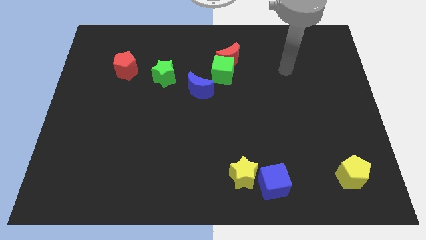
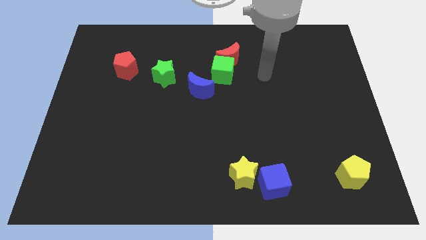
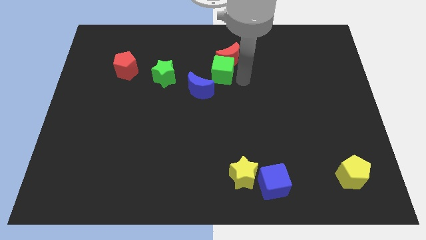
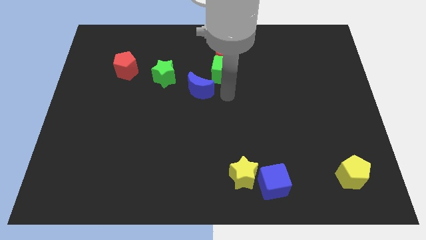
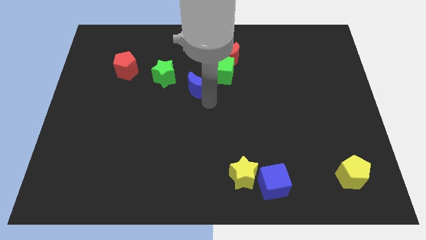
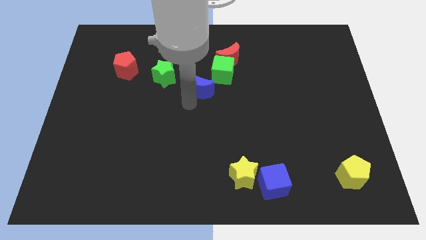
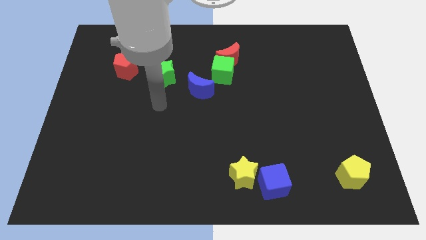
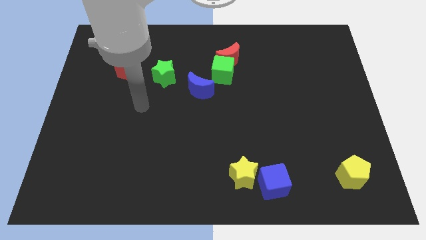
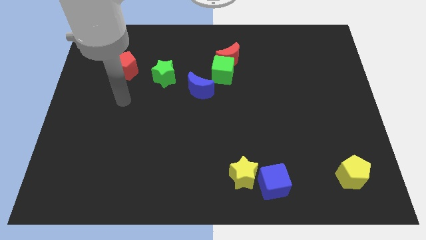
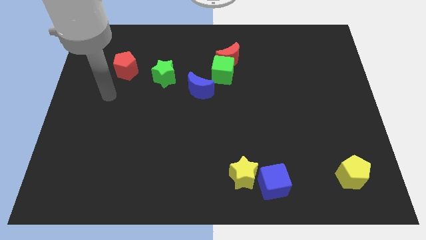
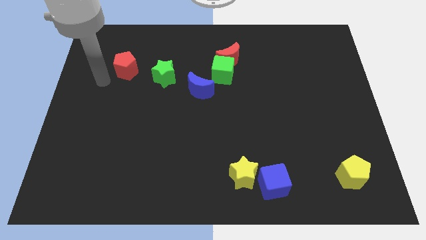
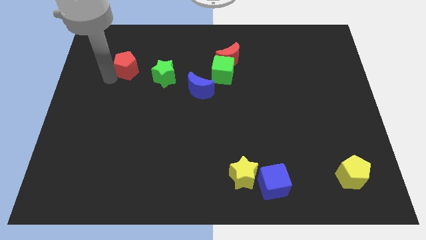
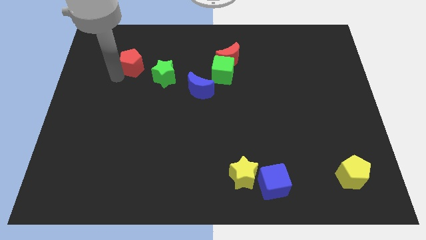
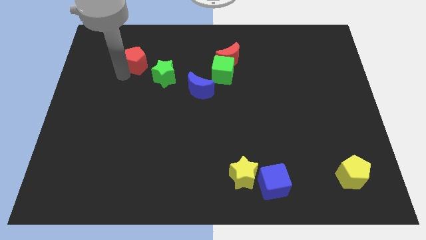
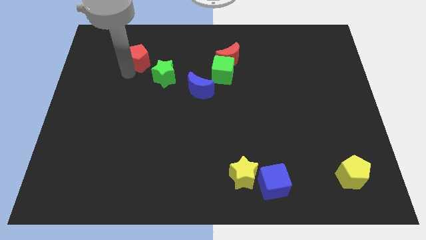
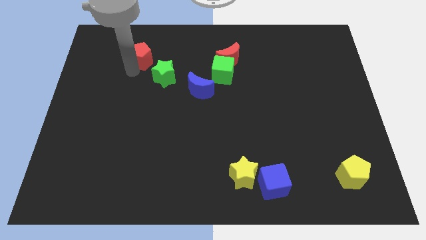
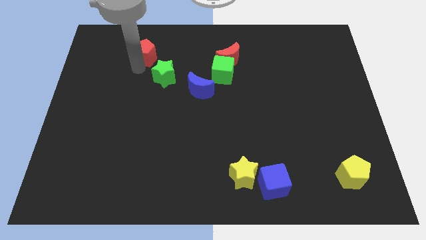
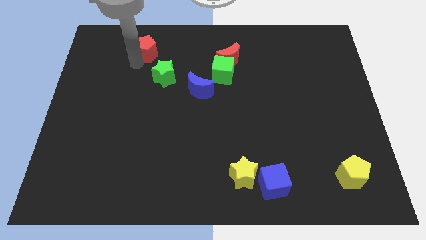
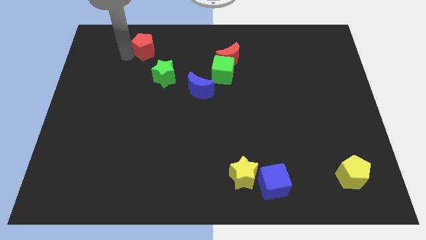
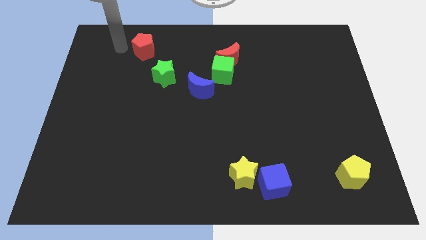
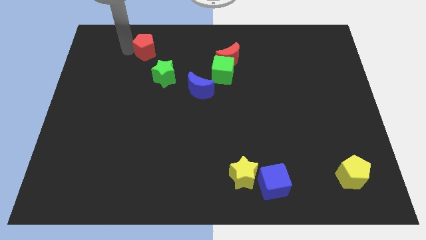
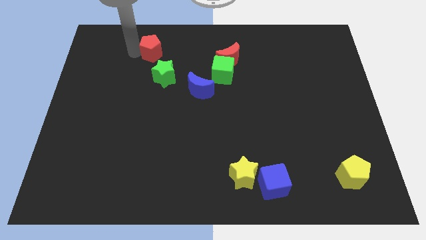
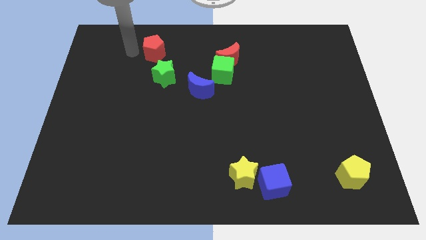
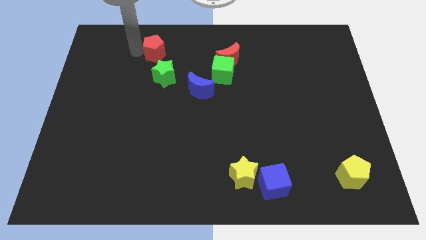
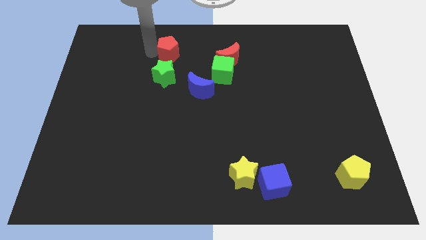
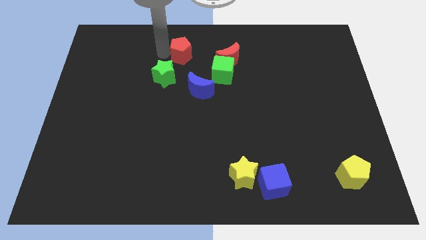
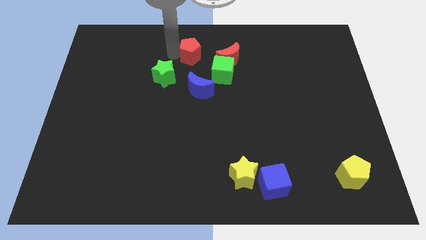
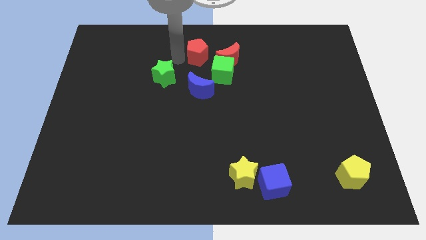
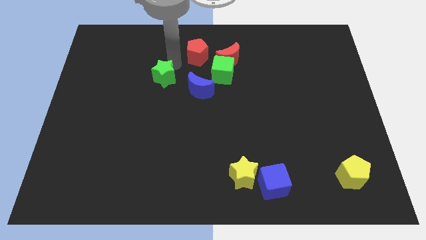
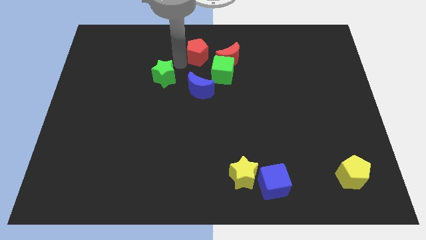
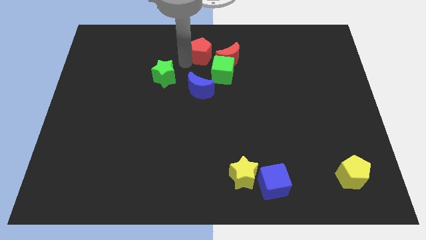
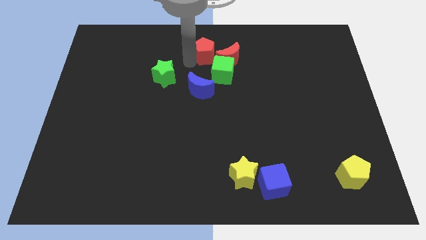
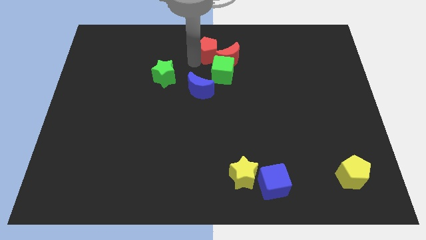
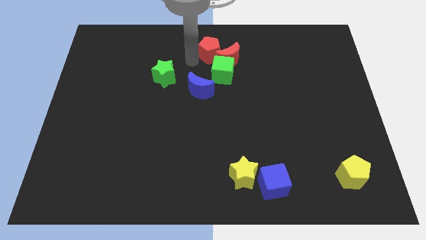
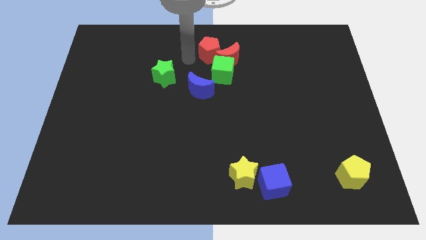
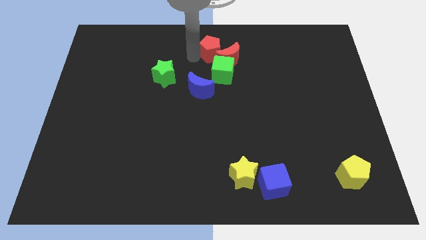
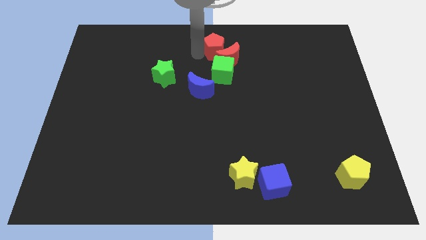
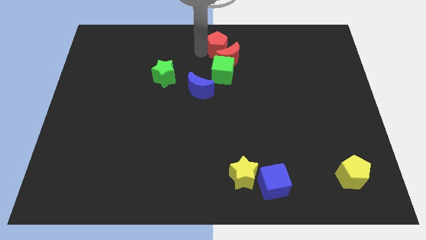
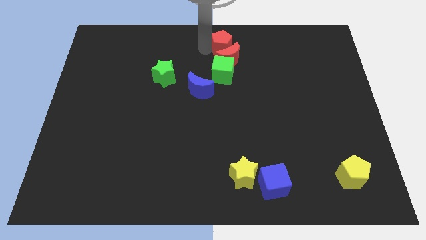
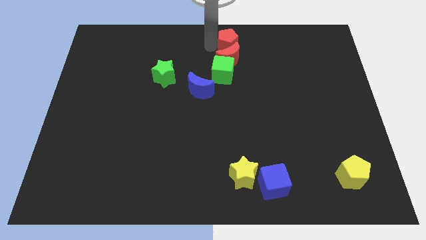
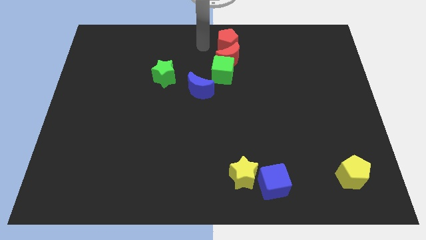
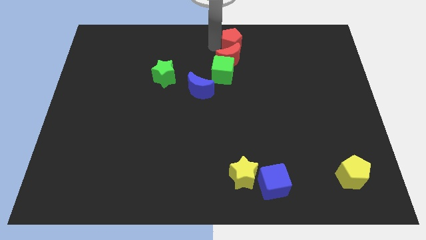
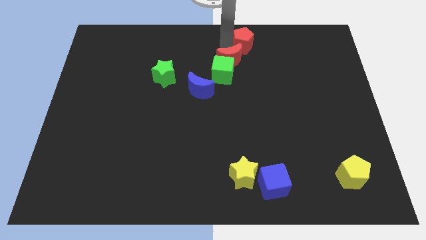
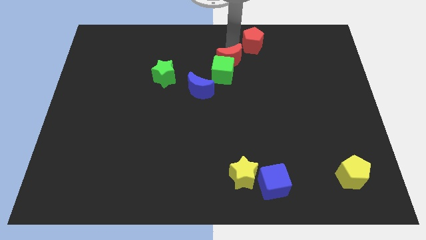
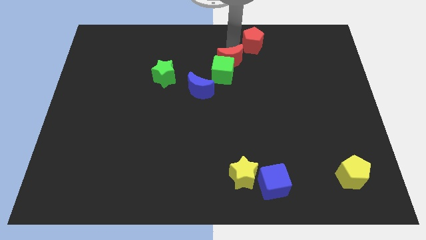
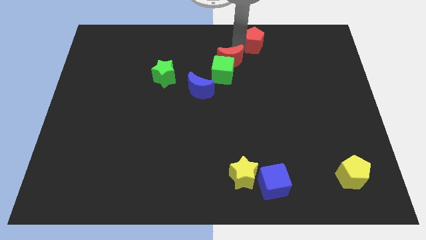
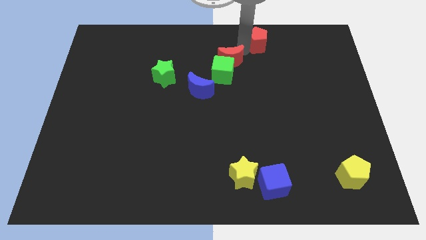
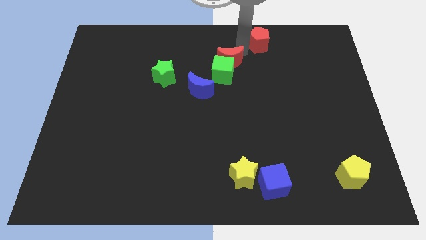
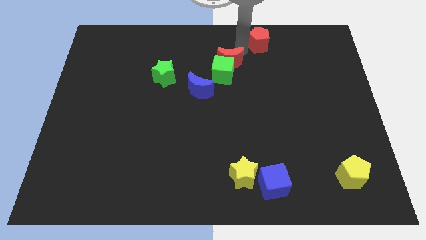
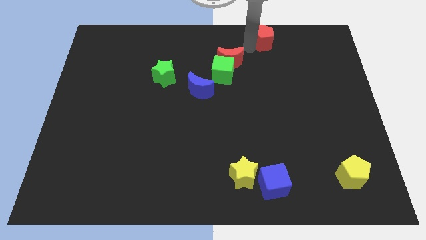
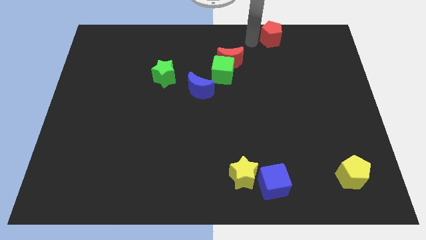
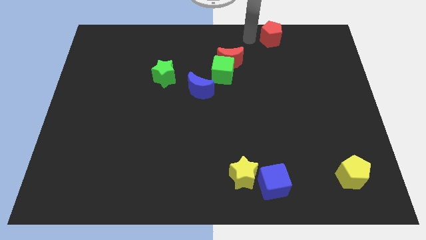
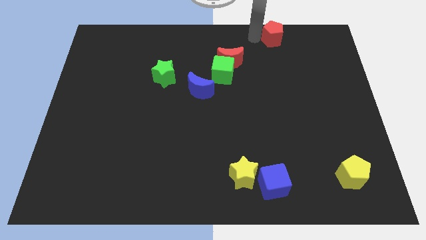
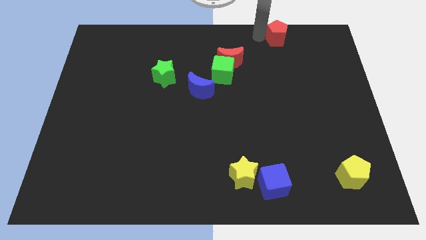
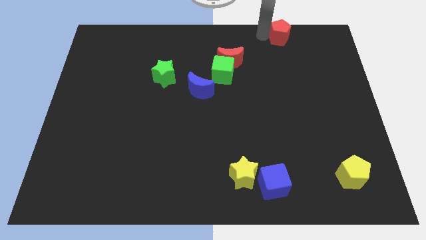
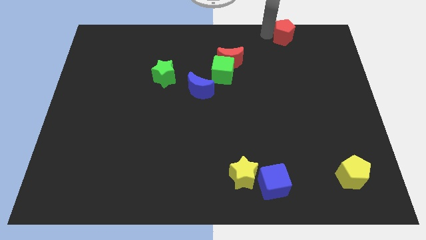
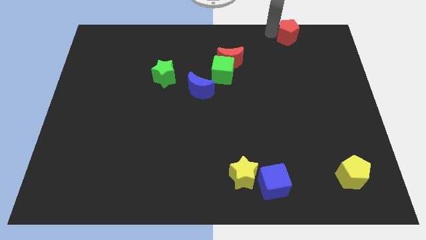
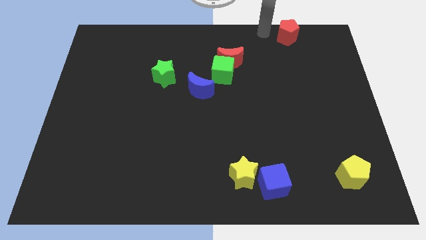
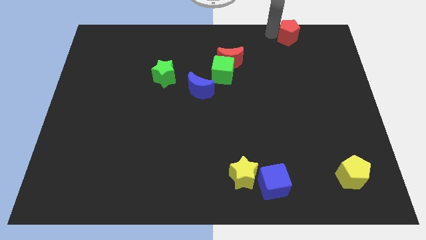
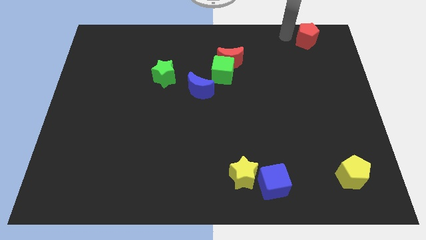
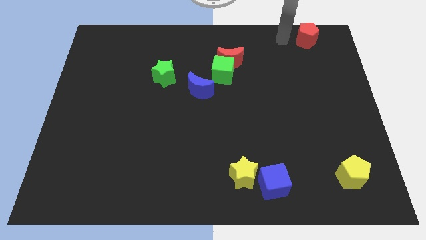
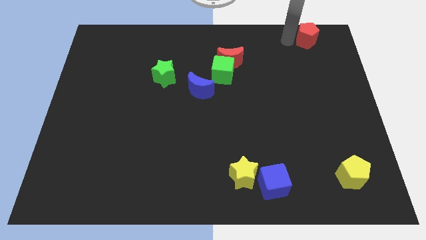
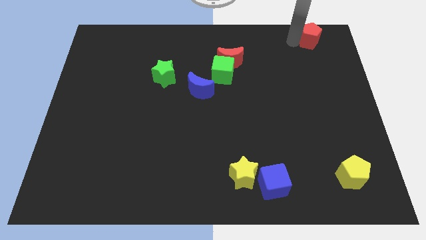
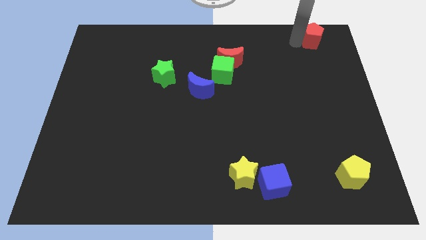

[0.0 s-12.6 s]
push the red pentagon to the top right

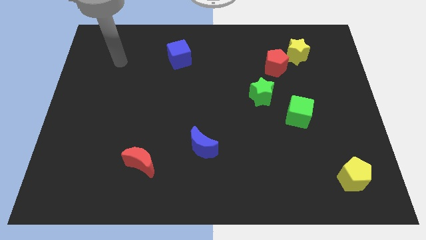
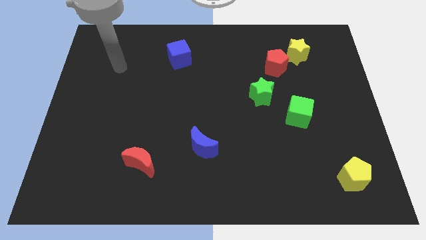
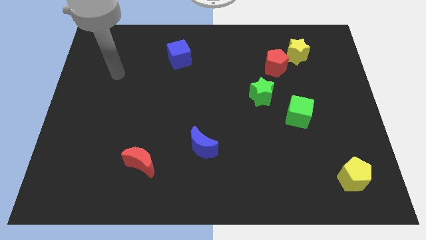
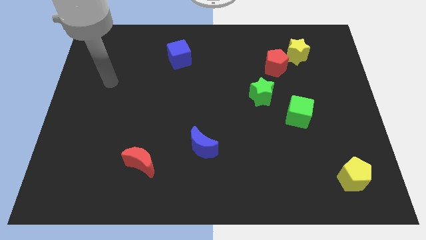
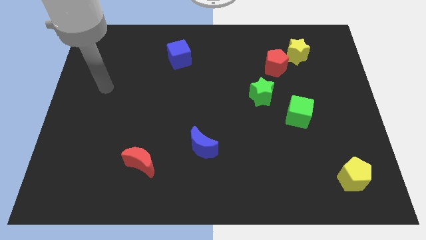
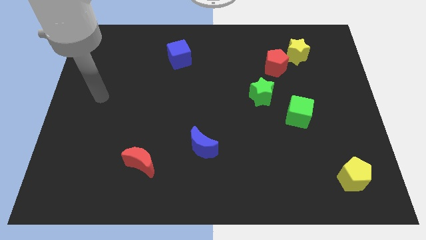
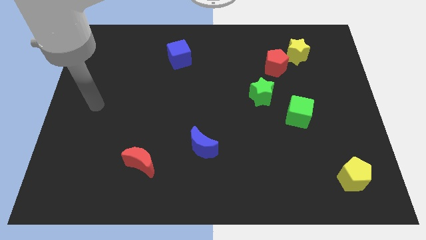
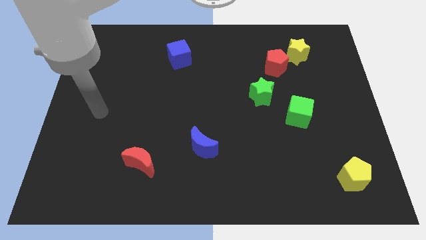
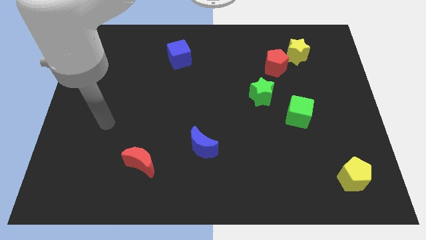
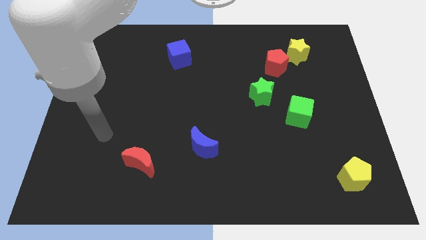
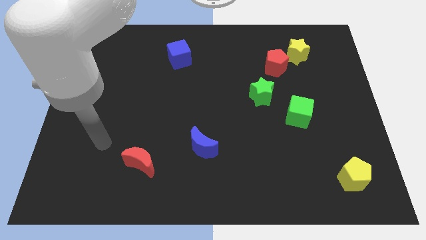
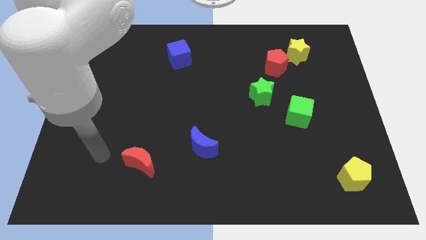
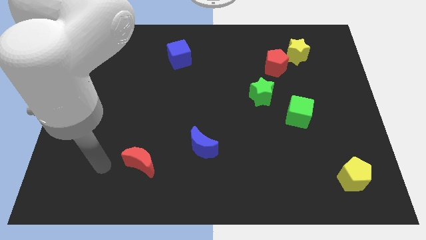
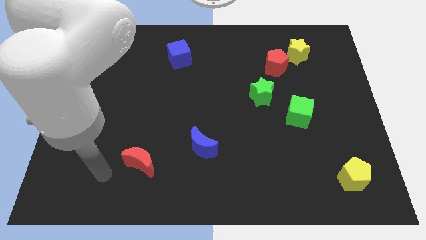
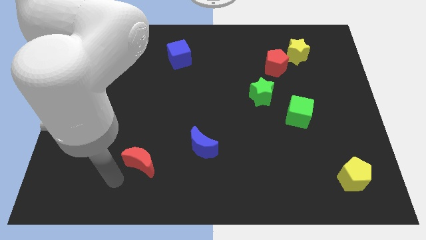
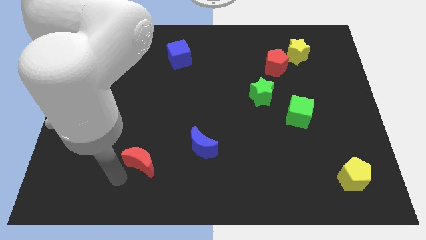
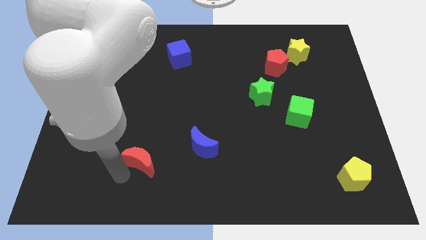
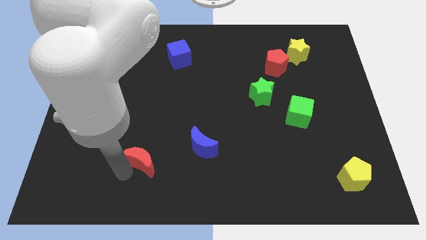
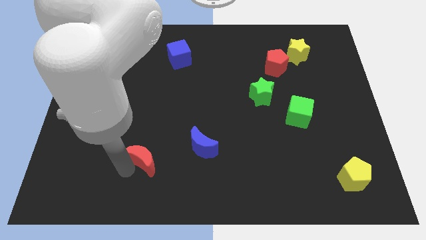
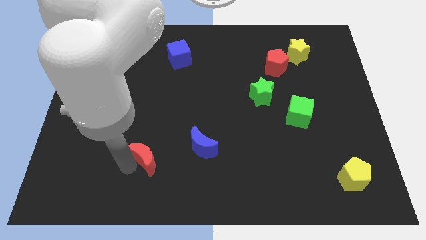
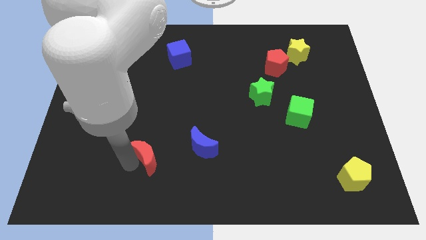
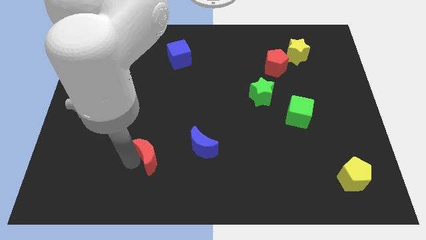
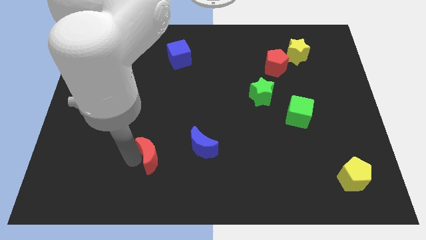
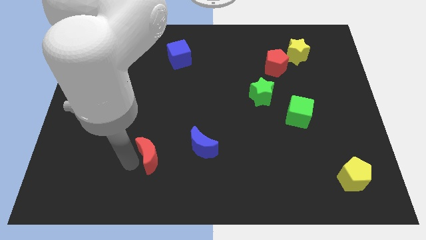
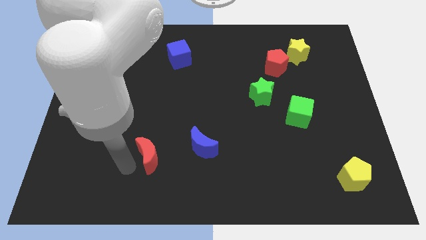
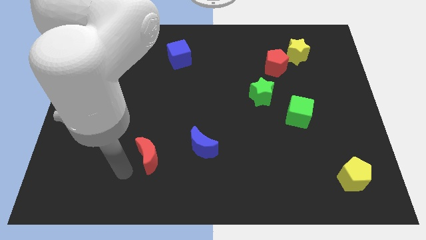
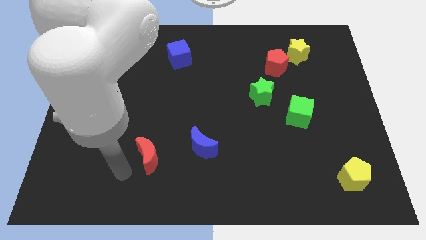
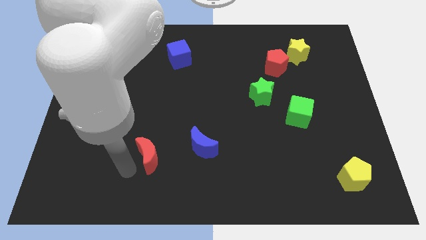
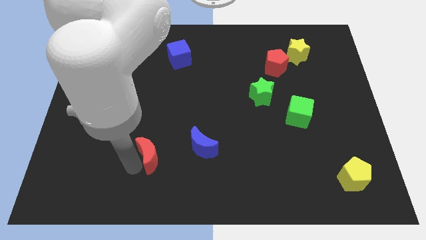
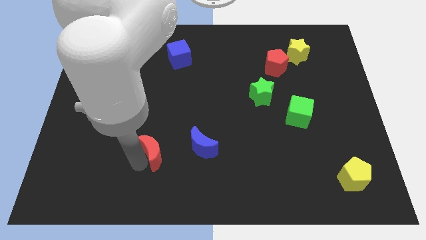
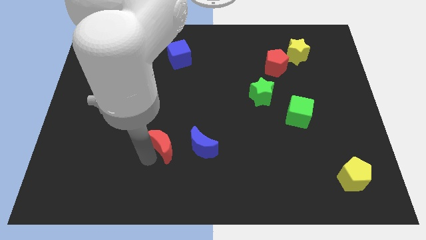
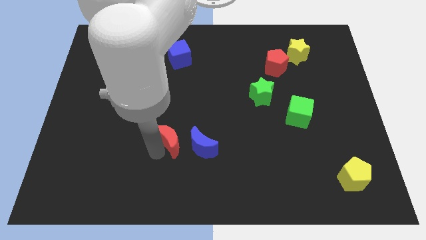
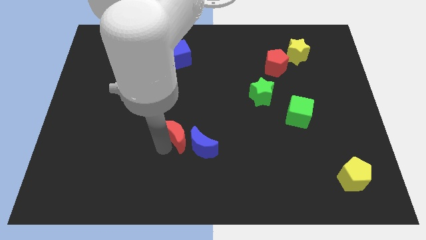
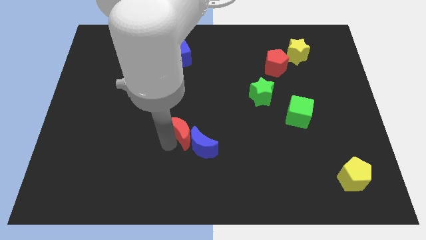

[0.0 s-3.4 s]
put the red moon to the center
